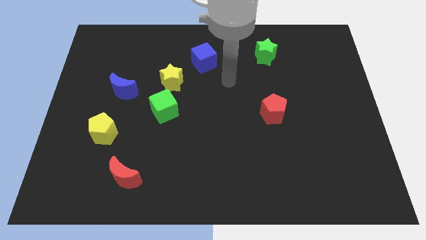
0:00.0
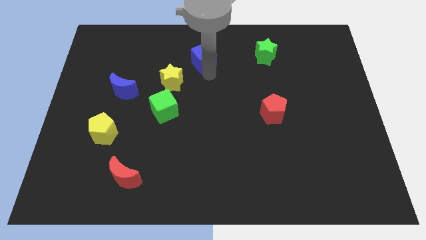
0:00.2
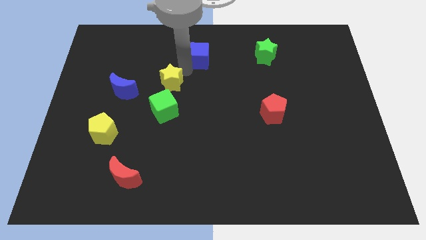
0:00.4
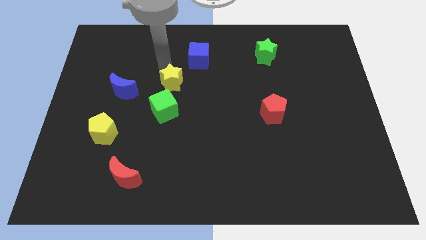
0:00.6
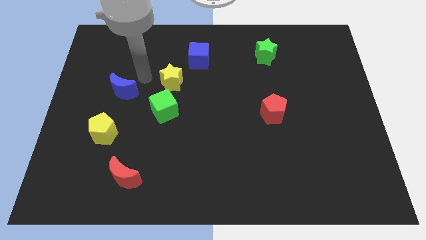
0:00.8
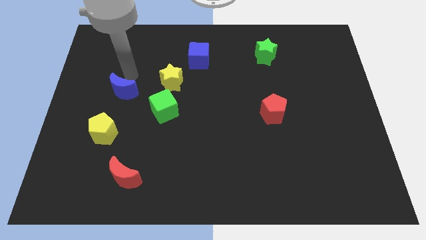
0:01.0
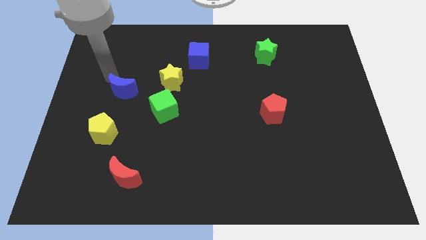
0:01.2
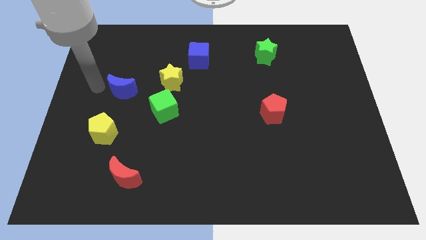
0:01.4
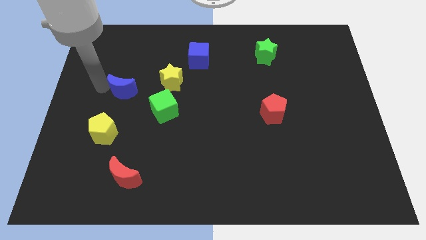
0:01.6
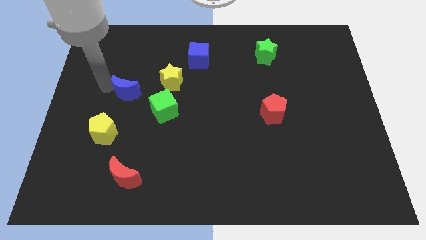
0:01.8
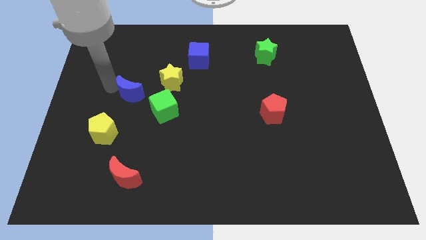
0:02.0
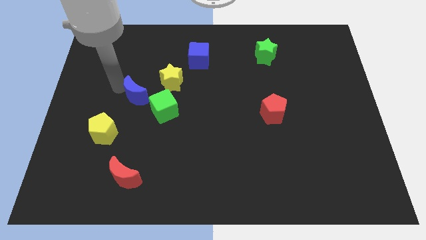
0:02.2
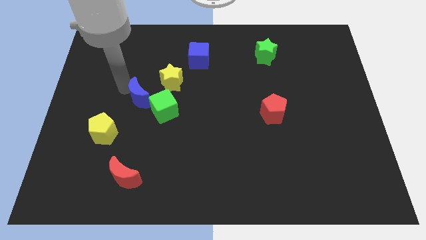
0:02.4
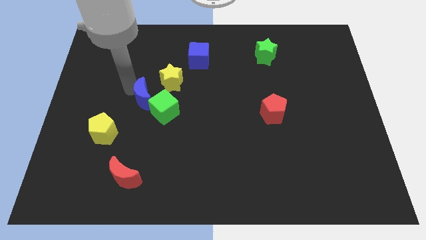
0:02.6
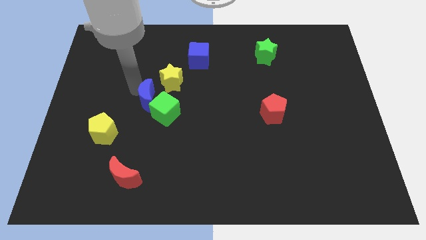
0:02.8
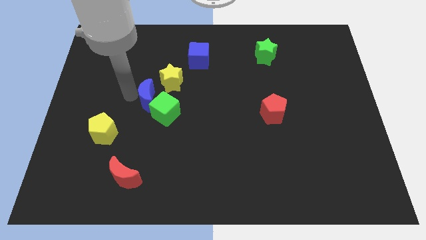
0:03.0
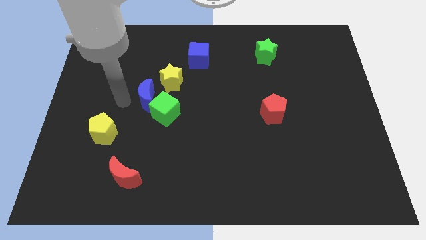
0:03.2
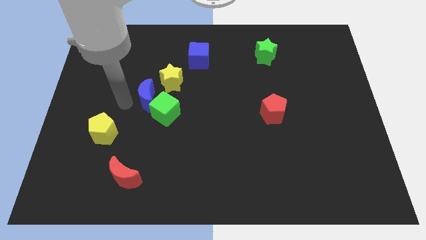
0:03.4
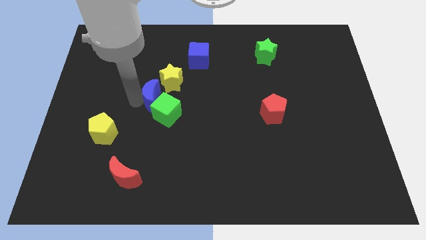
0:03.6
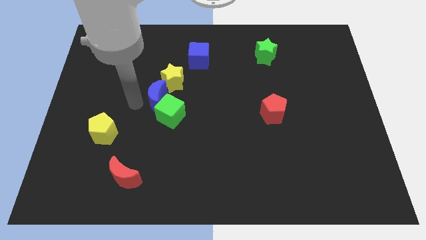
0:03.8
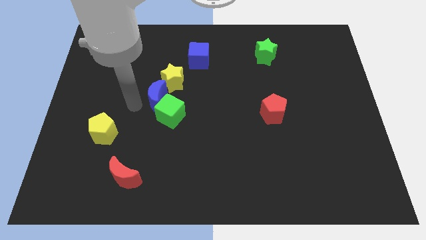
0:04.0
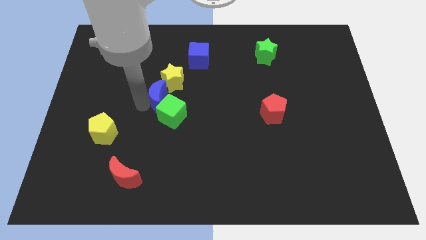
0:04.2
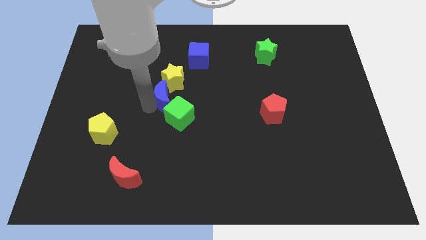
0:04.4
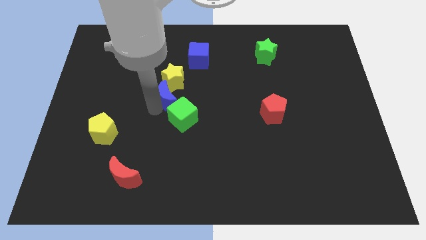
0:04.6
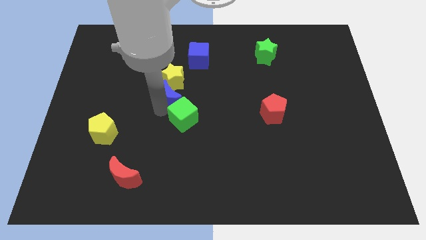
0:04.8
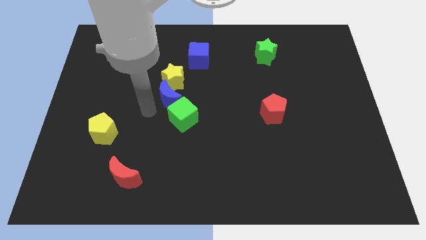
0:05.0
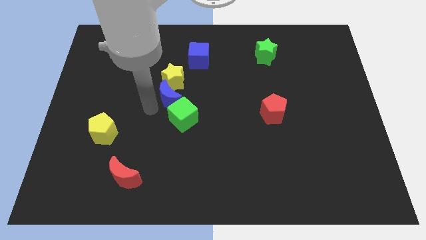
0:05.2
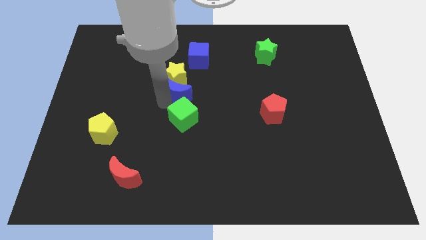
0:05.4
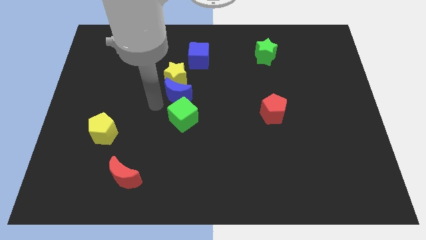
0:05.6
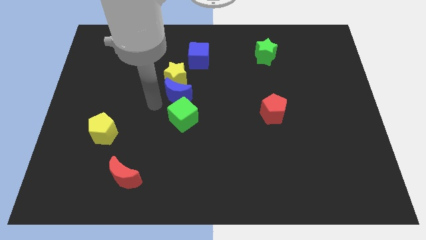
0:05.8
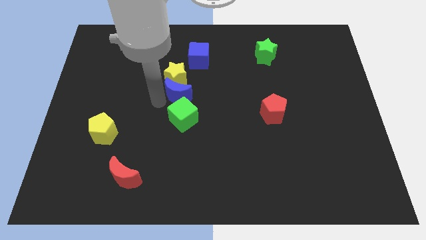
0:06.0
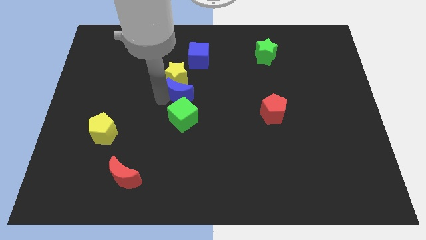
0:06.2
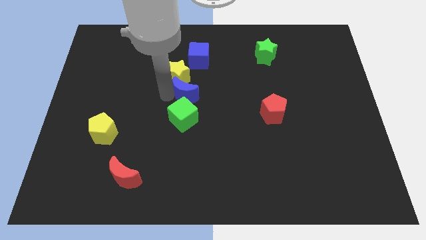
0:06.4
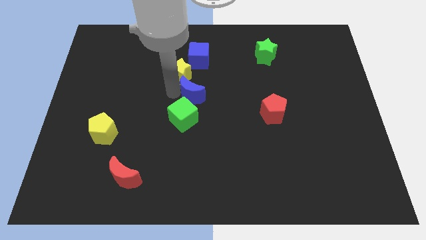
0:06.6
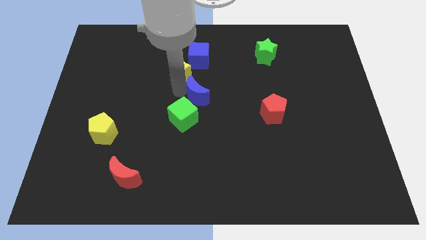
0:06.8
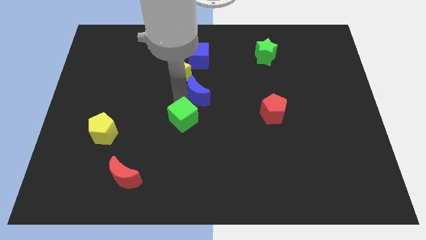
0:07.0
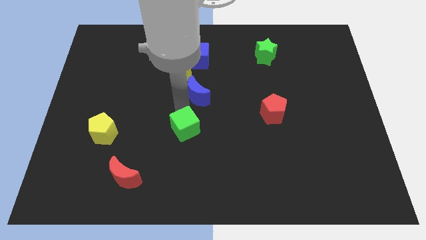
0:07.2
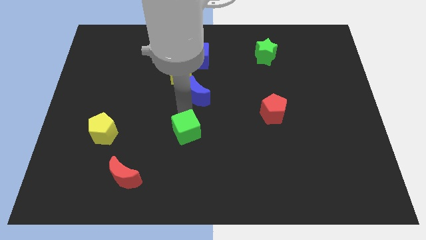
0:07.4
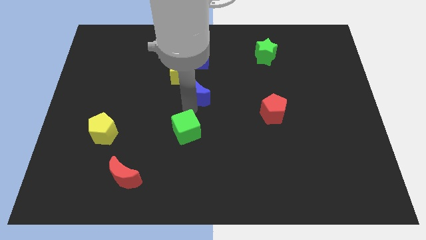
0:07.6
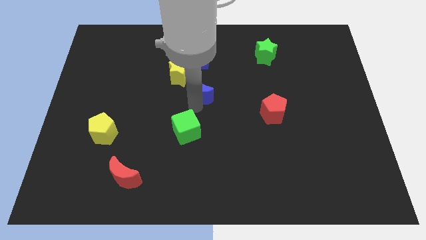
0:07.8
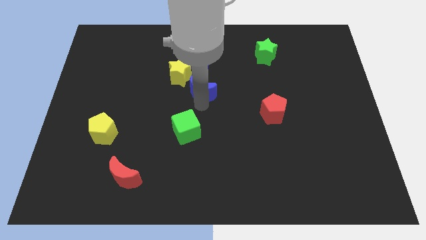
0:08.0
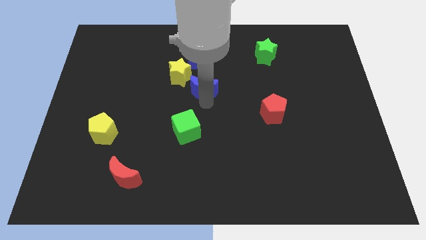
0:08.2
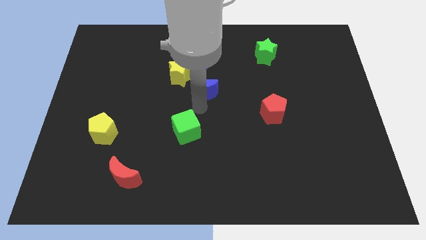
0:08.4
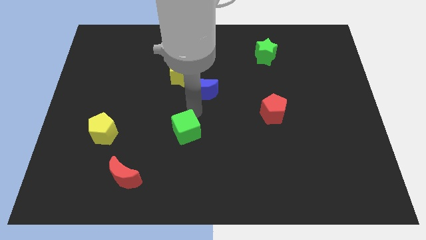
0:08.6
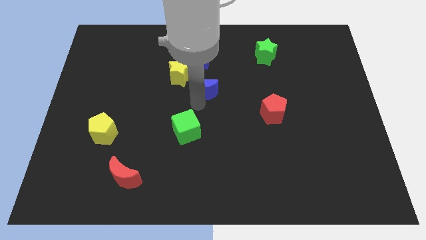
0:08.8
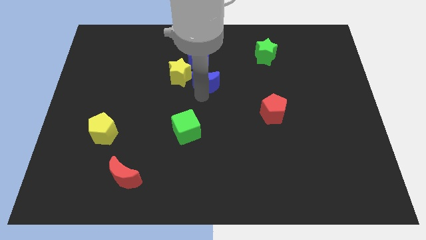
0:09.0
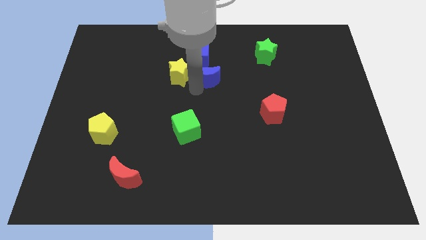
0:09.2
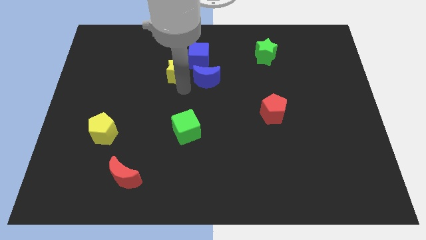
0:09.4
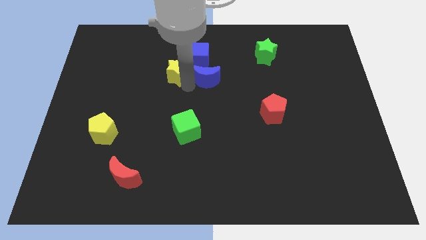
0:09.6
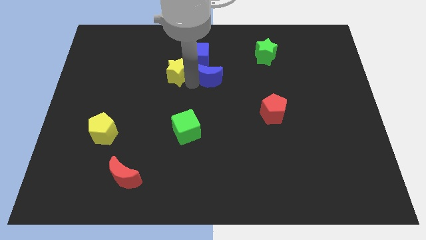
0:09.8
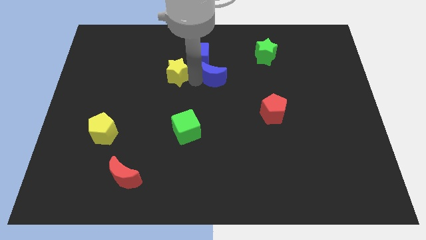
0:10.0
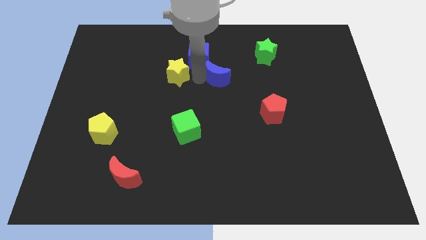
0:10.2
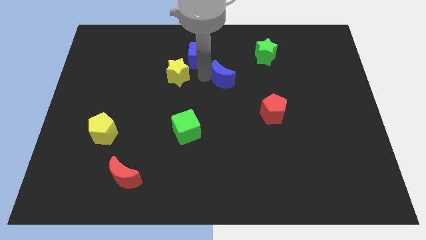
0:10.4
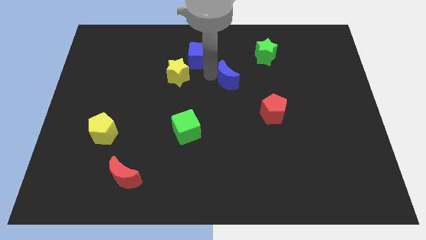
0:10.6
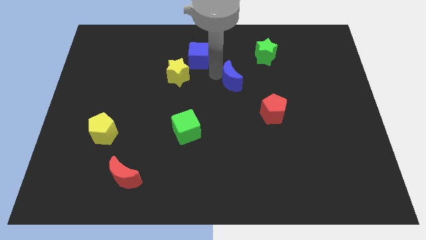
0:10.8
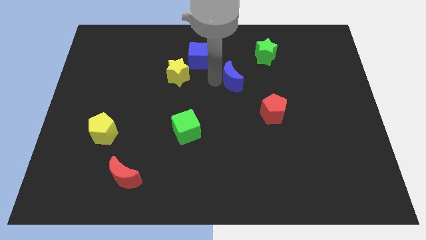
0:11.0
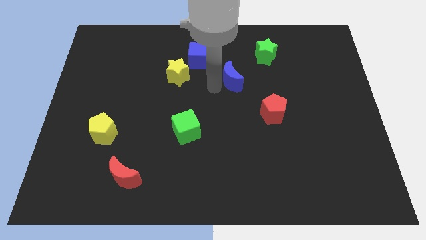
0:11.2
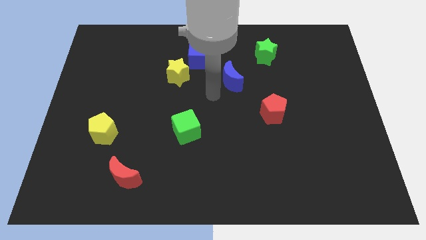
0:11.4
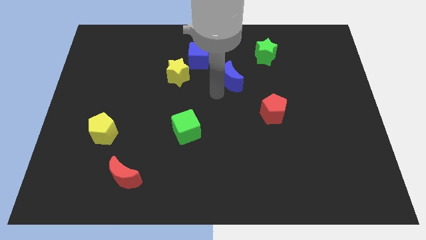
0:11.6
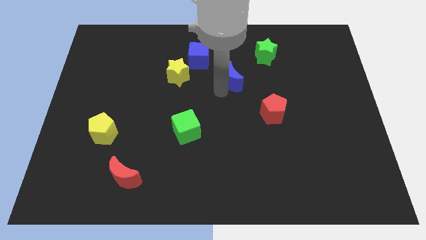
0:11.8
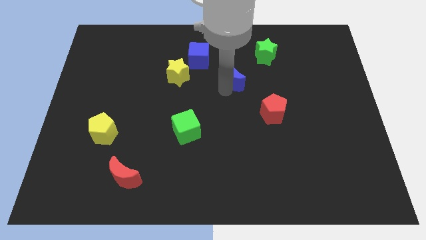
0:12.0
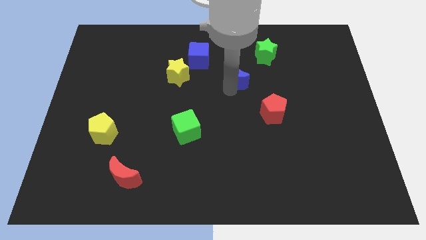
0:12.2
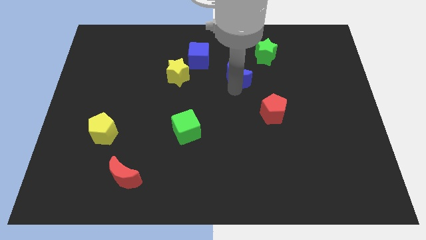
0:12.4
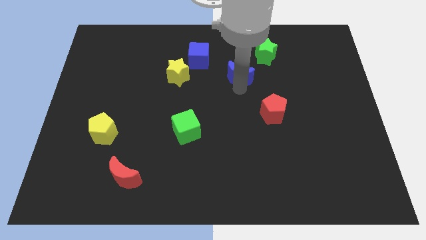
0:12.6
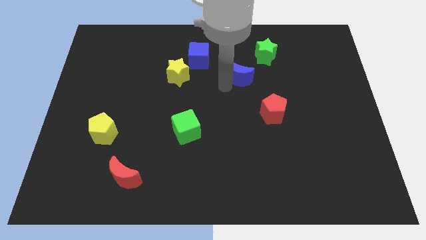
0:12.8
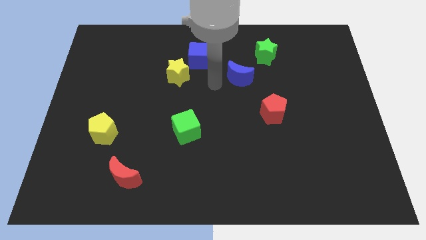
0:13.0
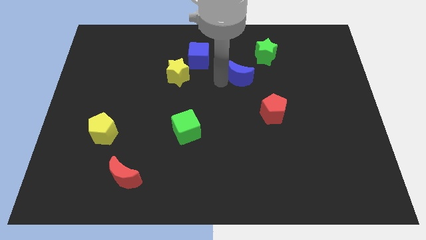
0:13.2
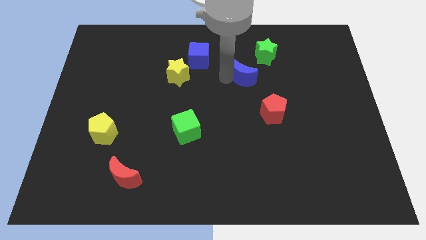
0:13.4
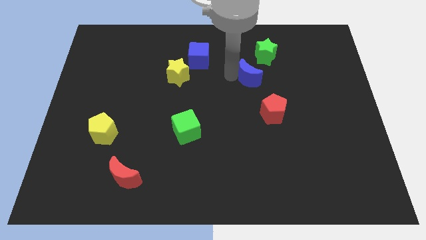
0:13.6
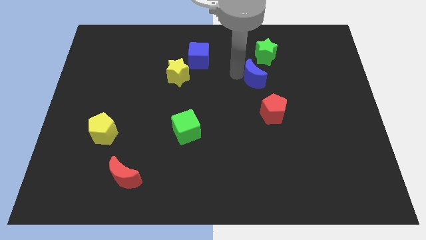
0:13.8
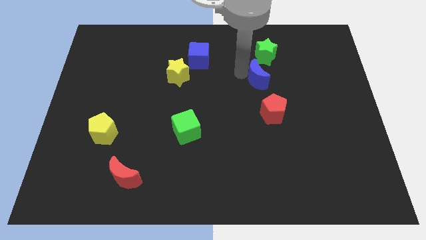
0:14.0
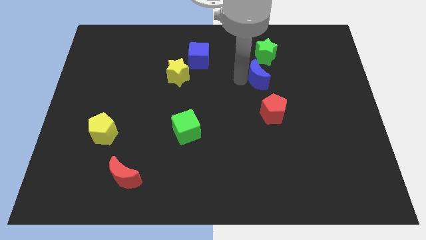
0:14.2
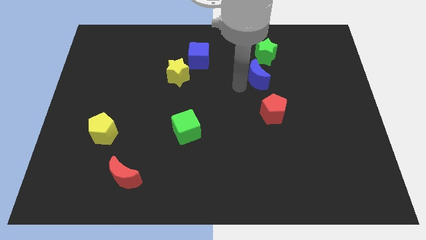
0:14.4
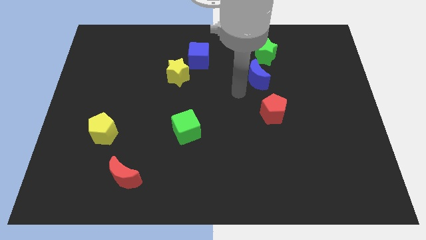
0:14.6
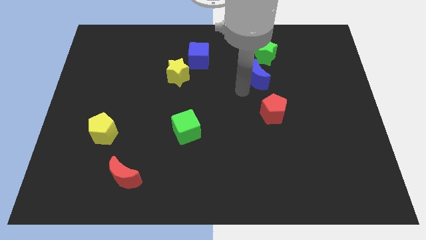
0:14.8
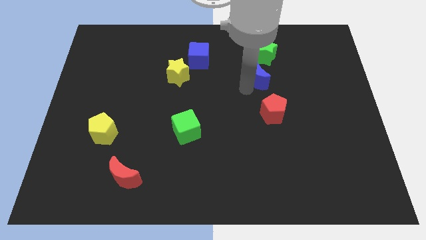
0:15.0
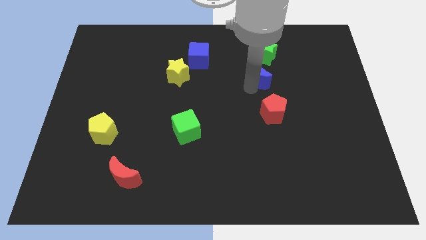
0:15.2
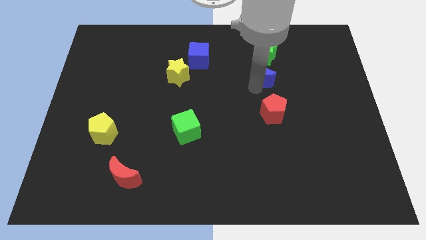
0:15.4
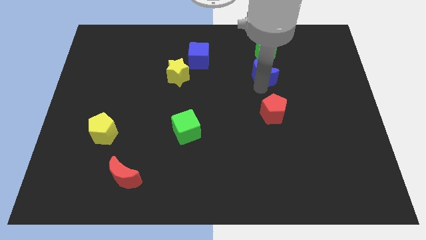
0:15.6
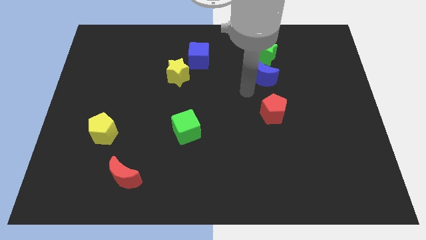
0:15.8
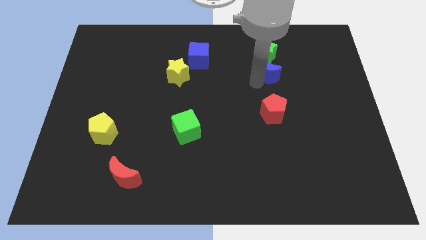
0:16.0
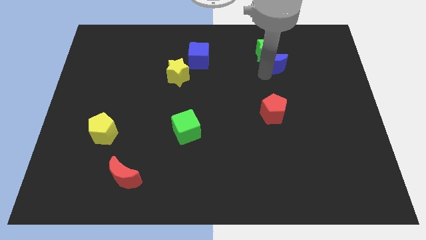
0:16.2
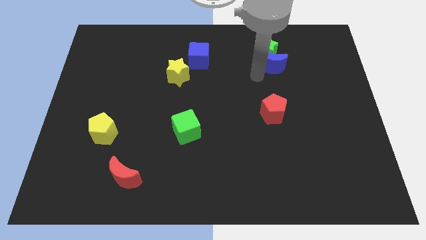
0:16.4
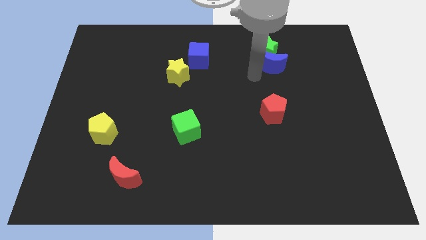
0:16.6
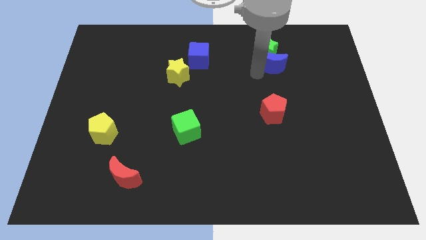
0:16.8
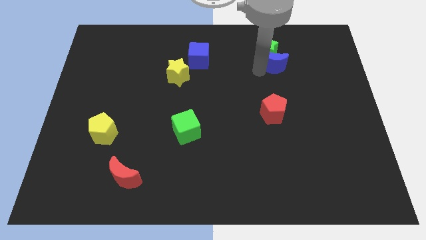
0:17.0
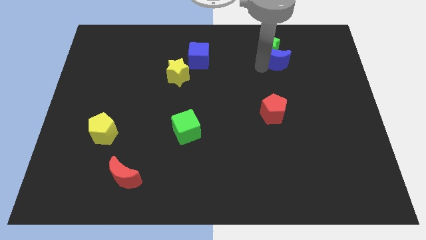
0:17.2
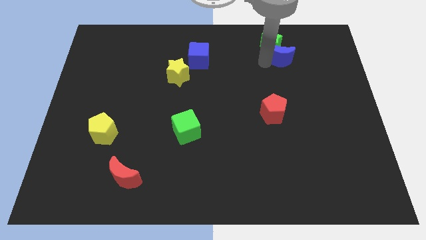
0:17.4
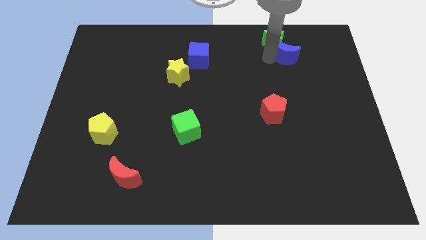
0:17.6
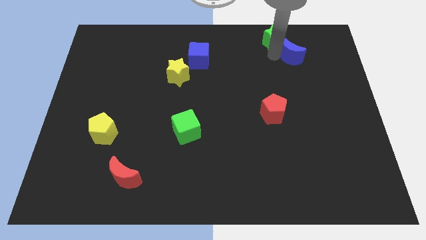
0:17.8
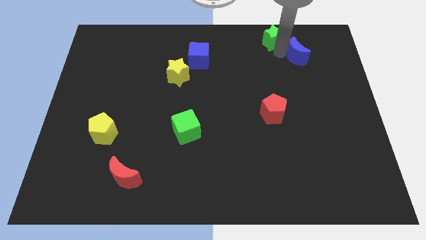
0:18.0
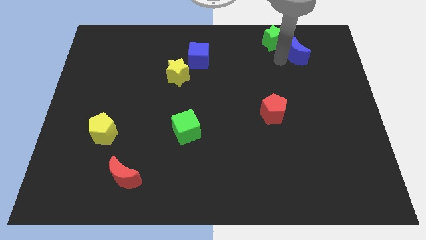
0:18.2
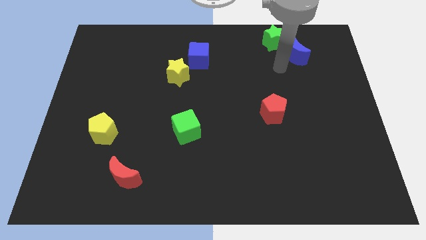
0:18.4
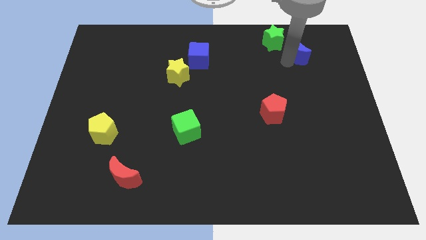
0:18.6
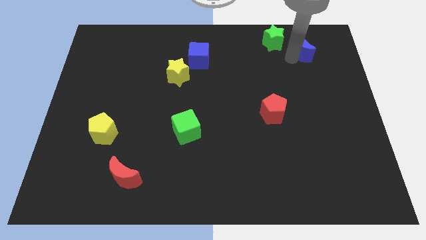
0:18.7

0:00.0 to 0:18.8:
push the blue moon to the right side of the green star
